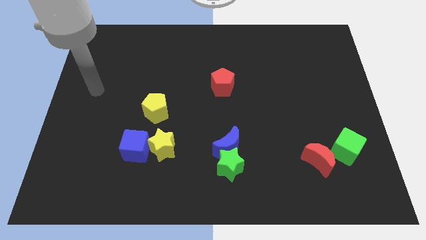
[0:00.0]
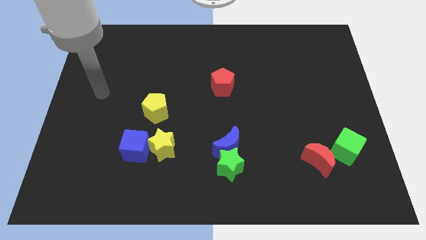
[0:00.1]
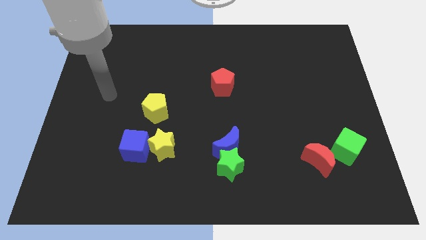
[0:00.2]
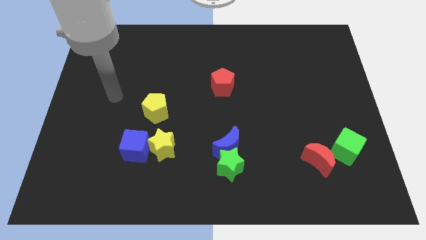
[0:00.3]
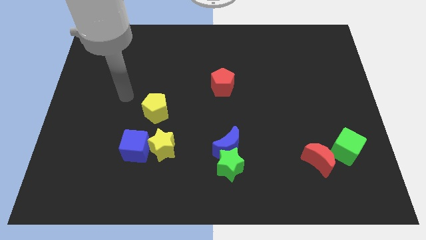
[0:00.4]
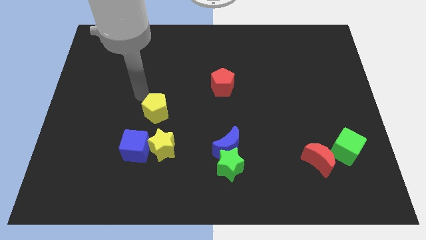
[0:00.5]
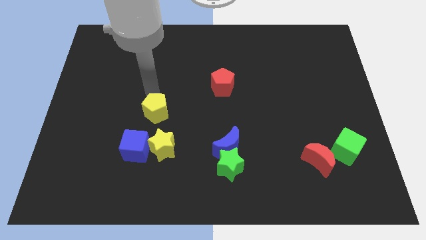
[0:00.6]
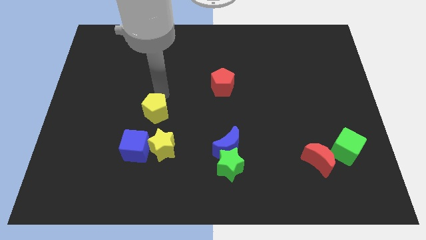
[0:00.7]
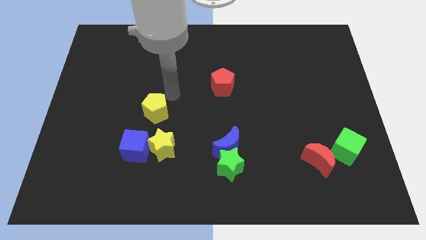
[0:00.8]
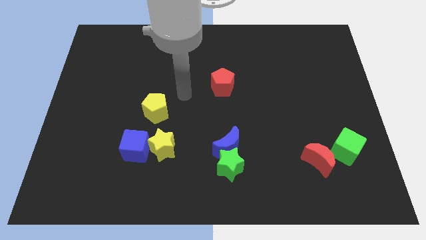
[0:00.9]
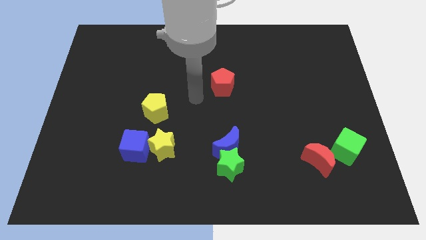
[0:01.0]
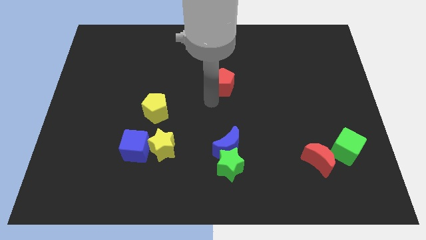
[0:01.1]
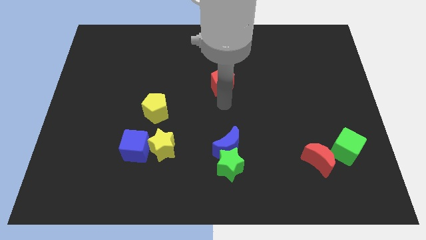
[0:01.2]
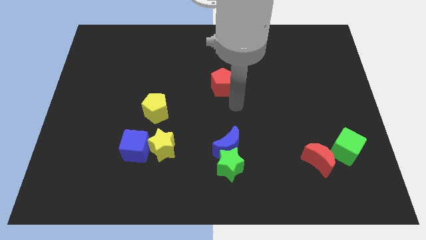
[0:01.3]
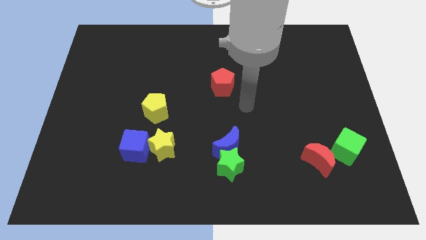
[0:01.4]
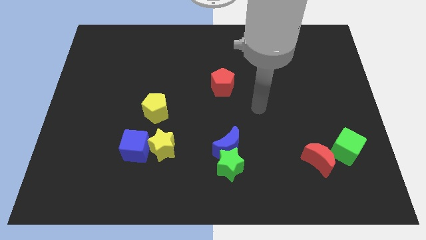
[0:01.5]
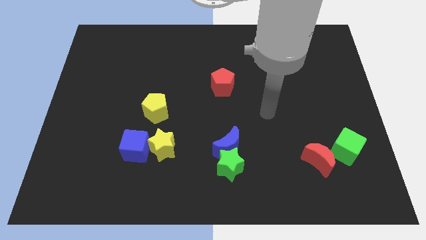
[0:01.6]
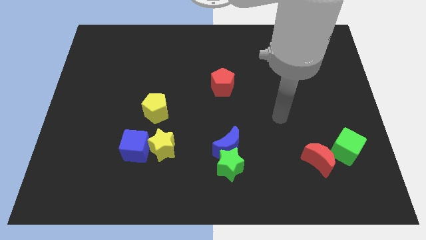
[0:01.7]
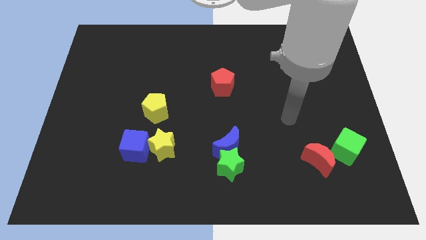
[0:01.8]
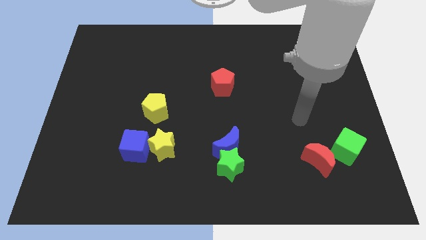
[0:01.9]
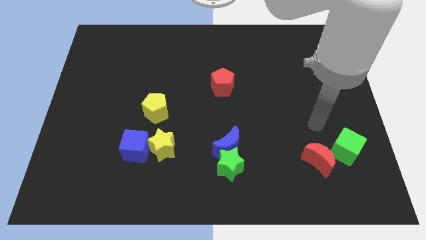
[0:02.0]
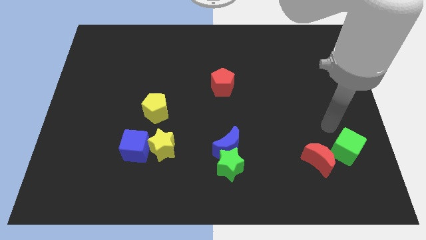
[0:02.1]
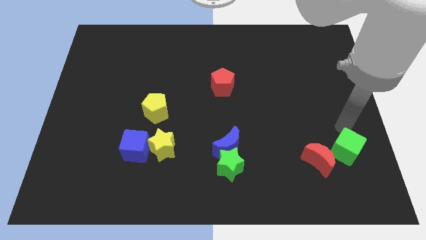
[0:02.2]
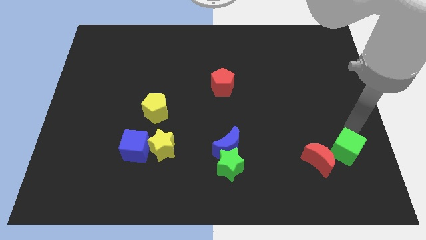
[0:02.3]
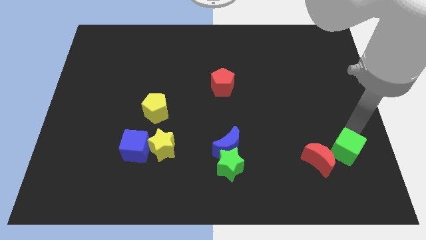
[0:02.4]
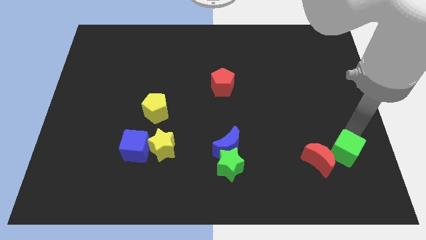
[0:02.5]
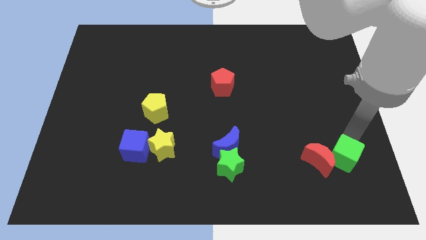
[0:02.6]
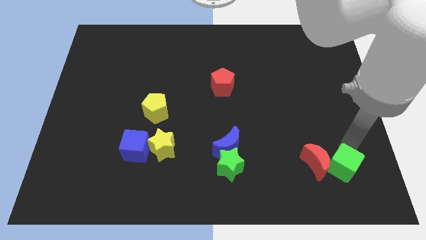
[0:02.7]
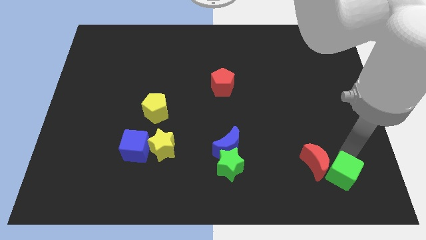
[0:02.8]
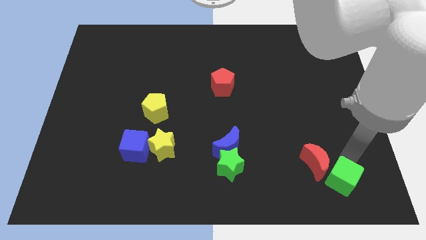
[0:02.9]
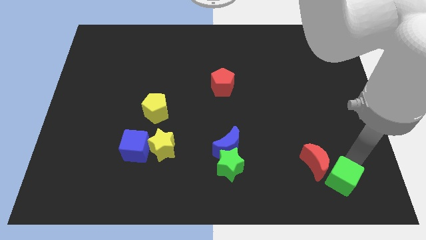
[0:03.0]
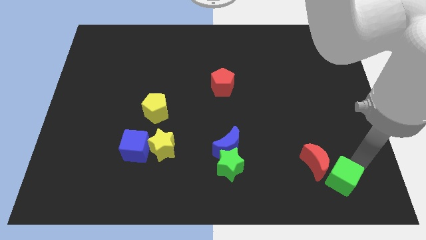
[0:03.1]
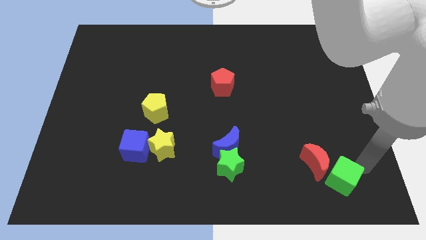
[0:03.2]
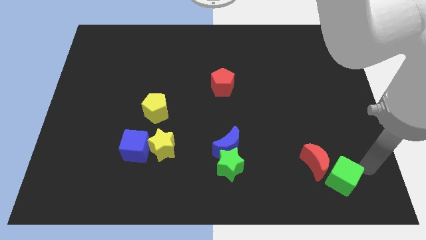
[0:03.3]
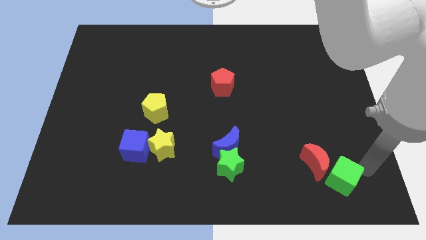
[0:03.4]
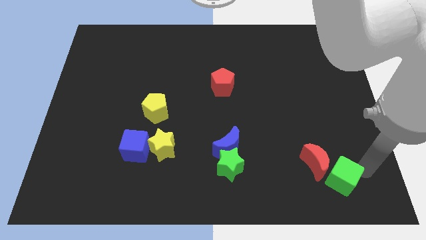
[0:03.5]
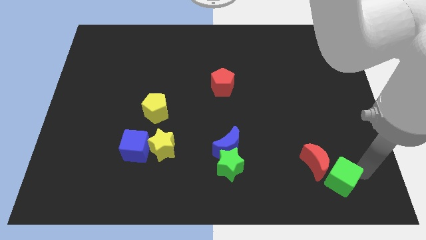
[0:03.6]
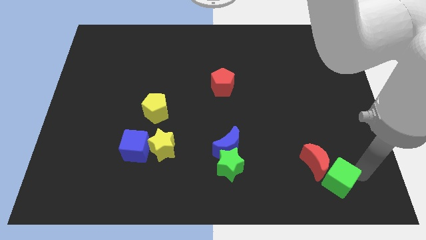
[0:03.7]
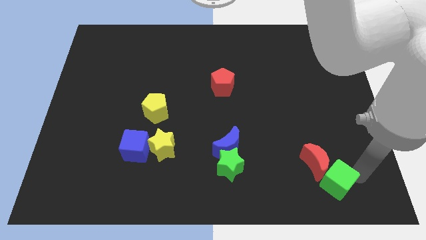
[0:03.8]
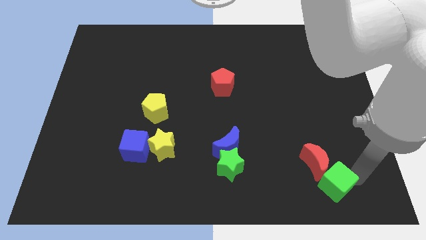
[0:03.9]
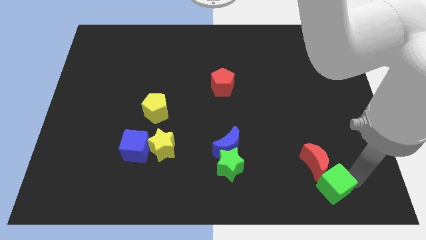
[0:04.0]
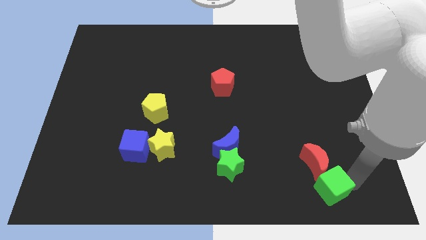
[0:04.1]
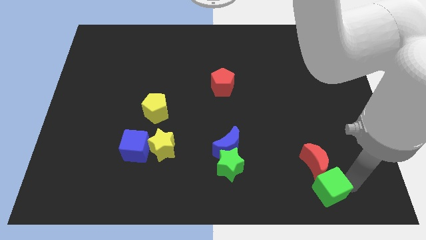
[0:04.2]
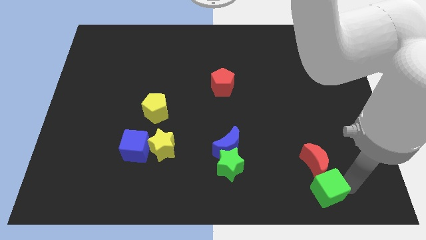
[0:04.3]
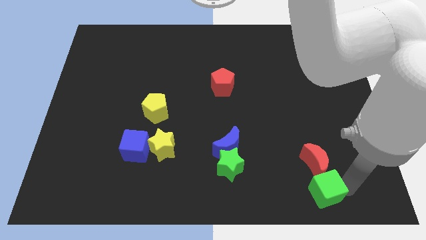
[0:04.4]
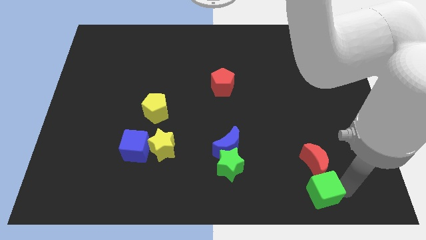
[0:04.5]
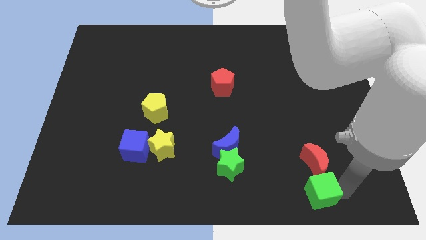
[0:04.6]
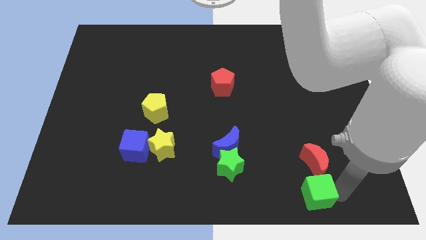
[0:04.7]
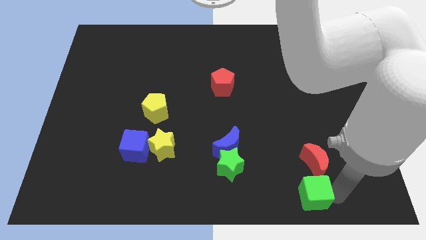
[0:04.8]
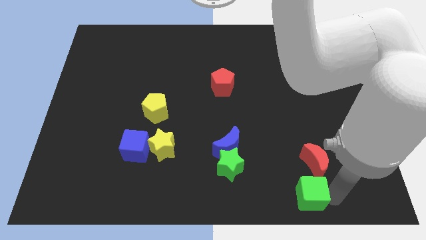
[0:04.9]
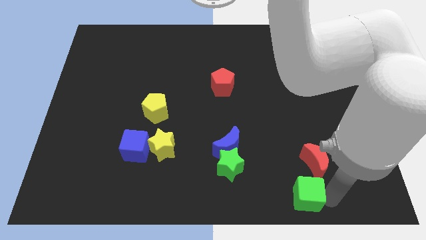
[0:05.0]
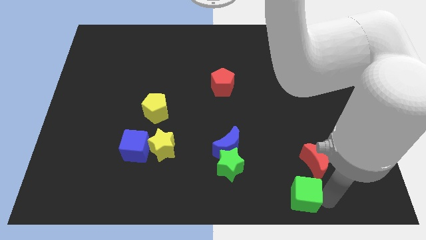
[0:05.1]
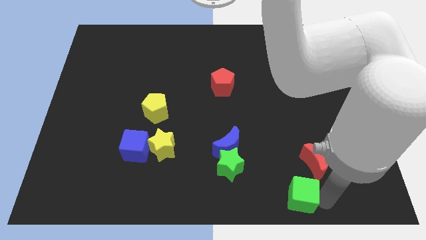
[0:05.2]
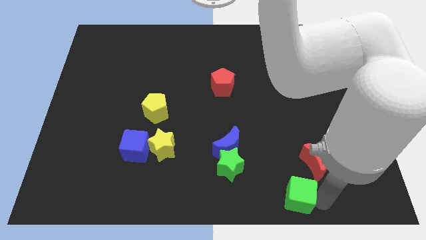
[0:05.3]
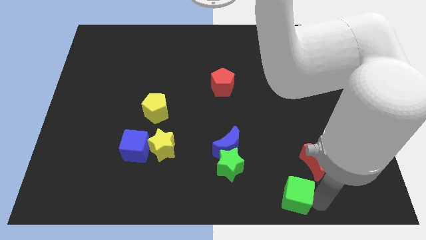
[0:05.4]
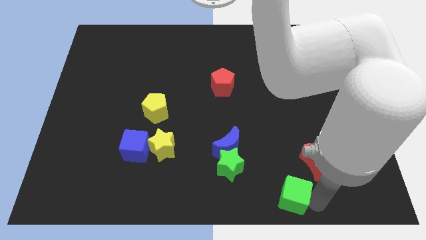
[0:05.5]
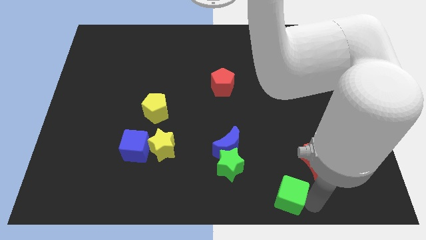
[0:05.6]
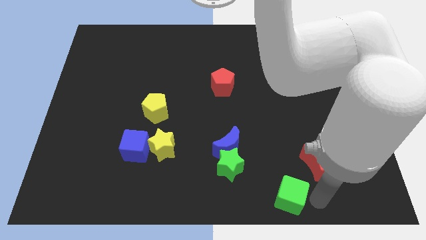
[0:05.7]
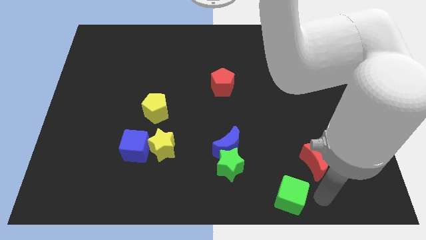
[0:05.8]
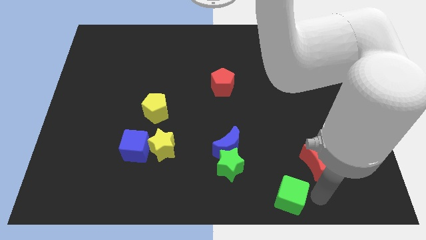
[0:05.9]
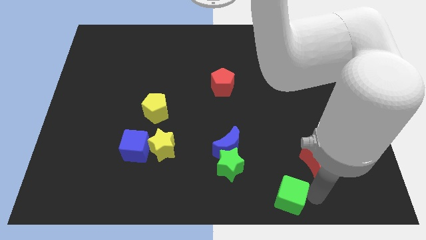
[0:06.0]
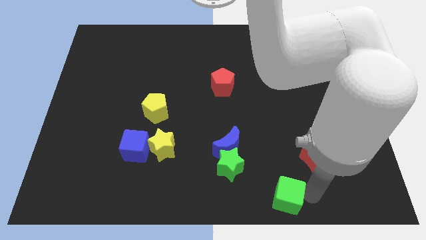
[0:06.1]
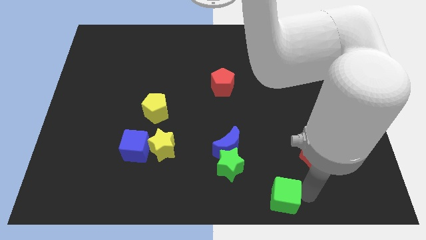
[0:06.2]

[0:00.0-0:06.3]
move the green cube to the bottom
